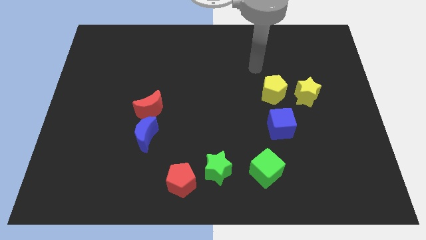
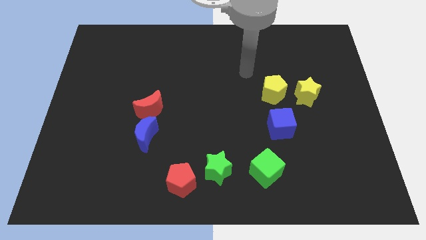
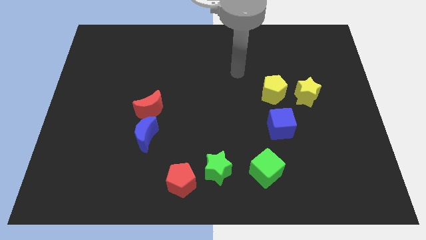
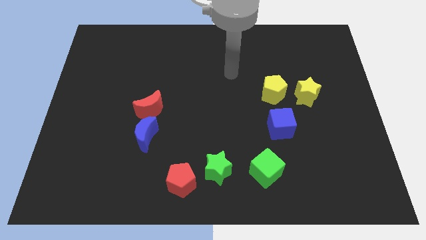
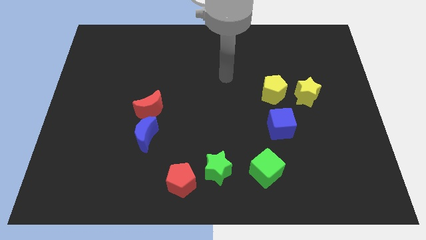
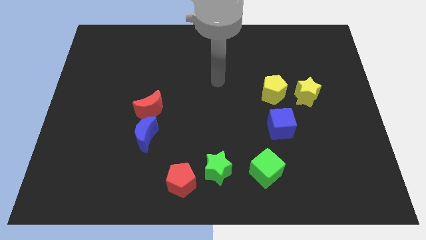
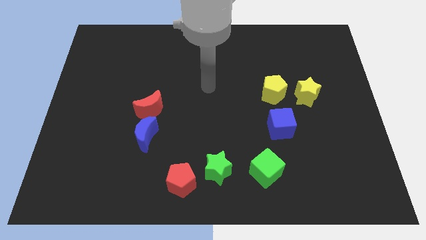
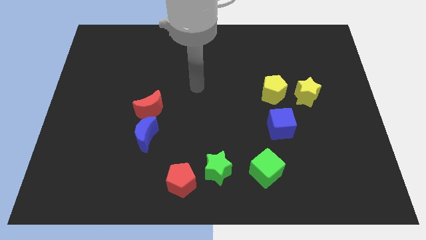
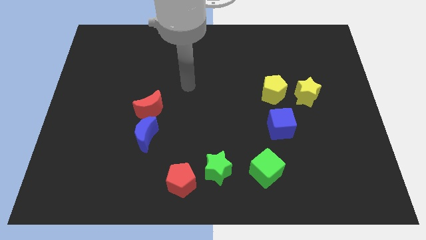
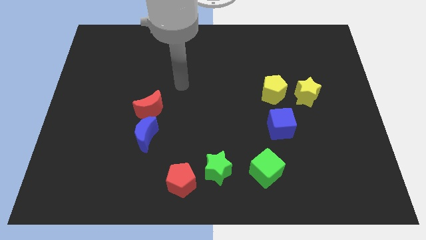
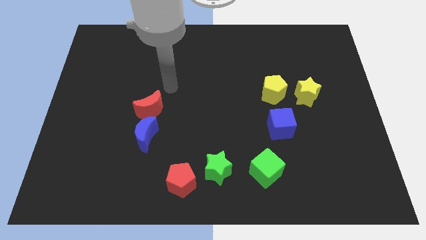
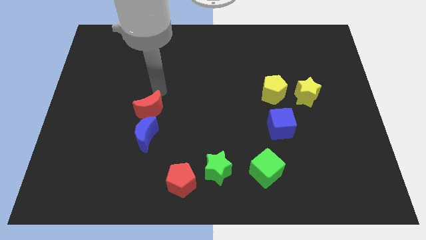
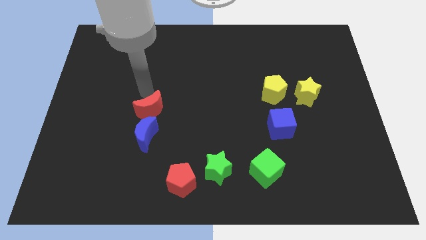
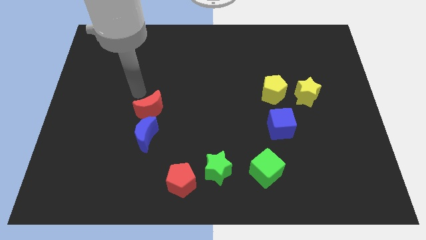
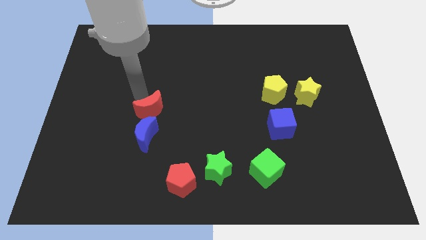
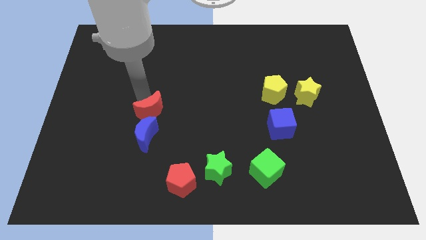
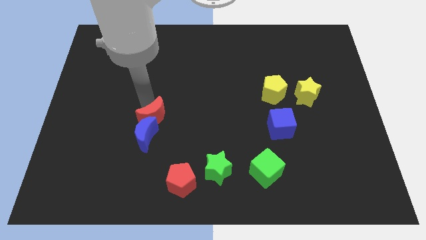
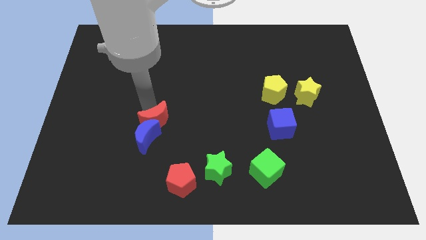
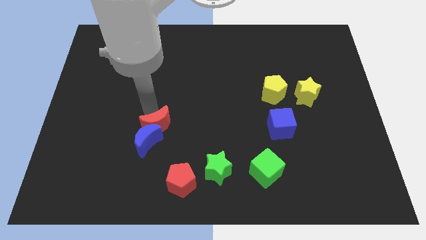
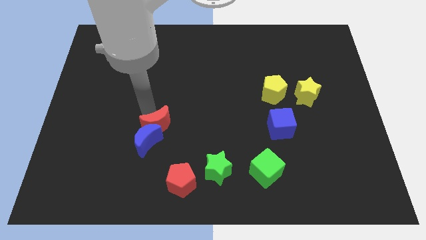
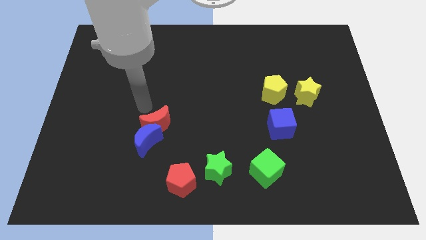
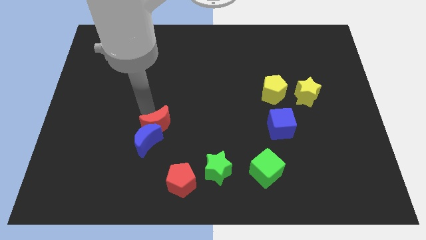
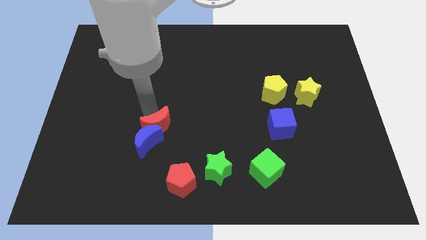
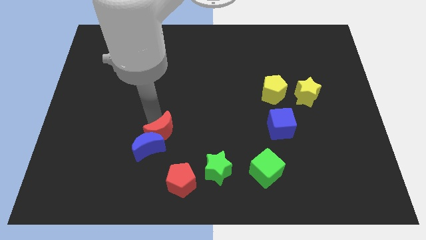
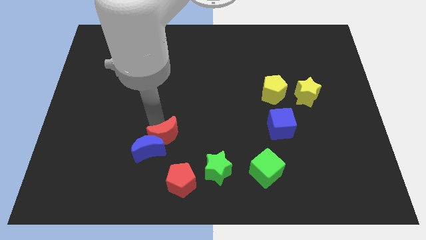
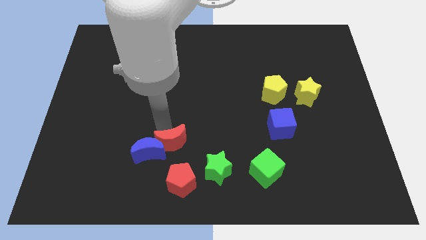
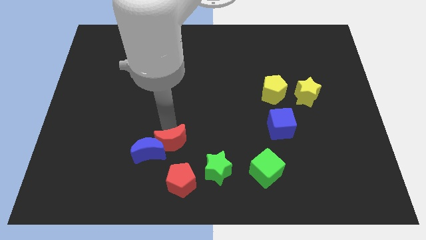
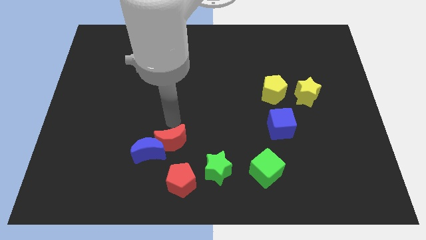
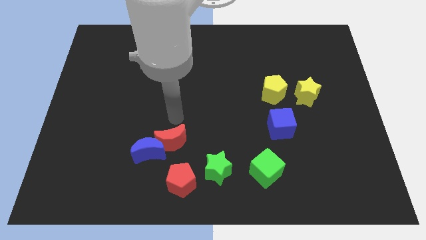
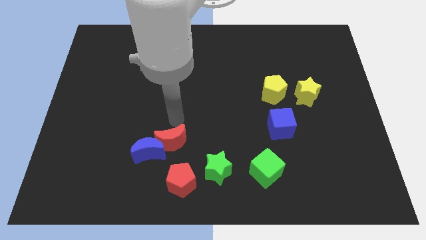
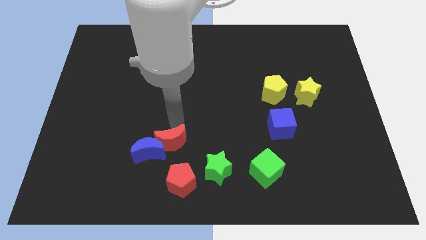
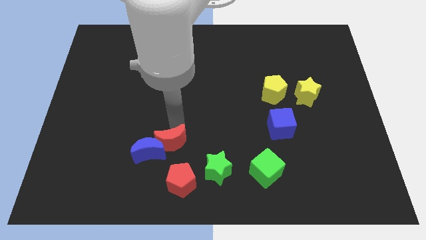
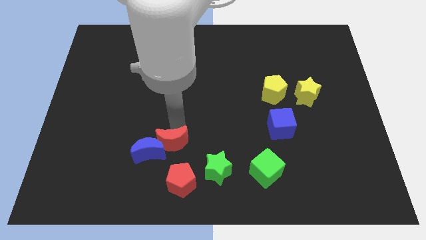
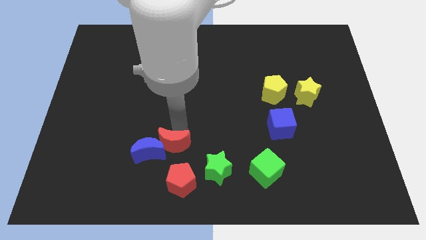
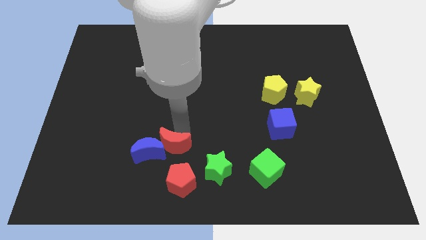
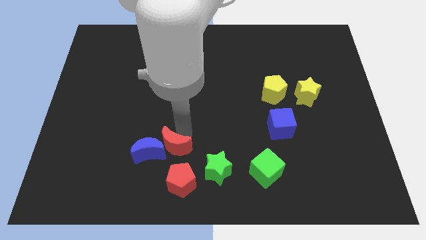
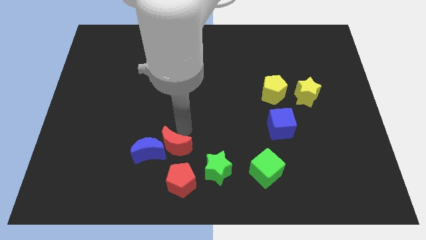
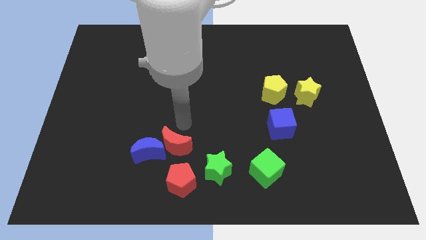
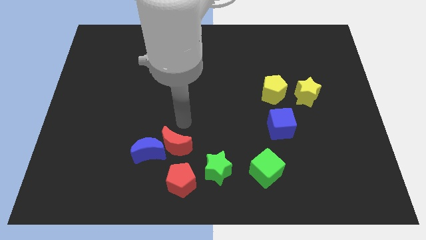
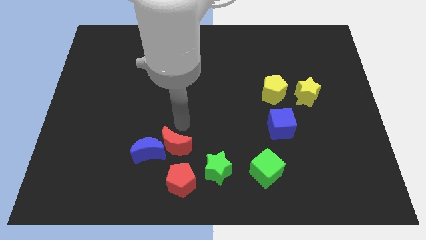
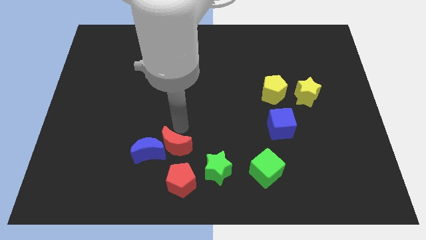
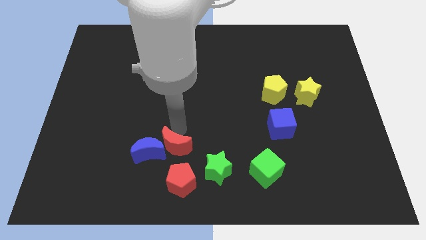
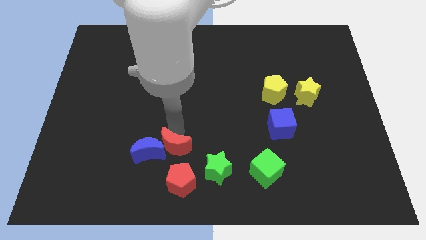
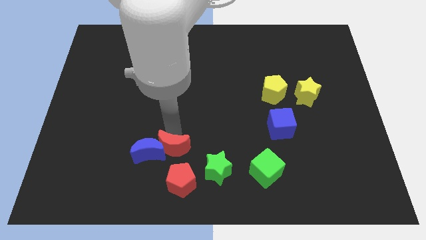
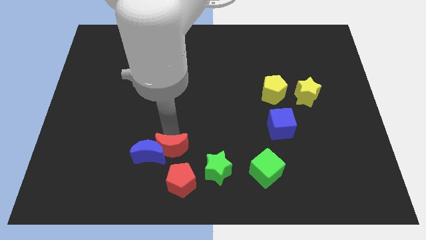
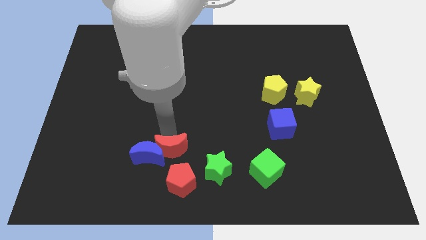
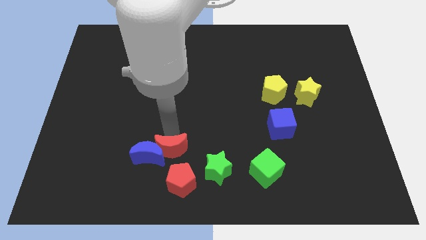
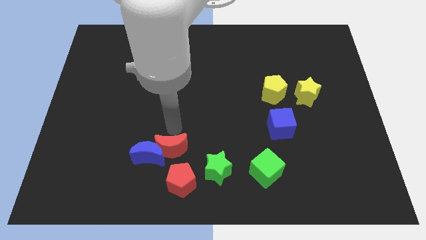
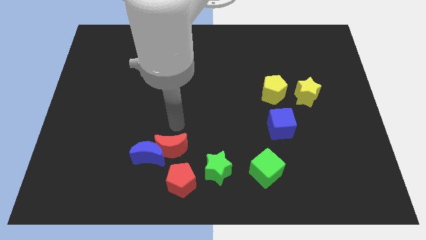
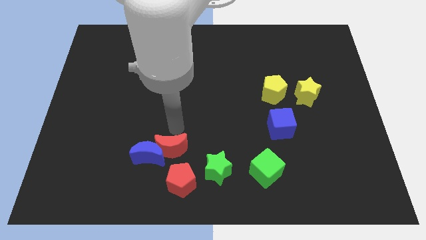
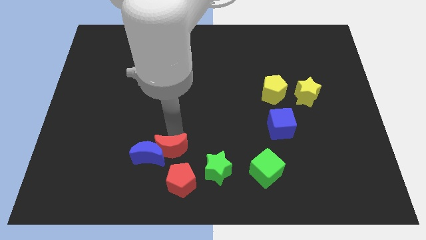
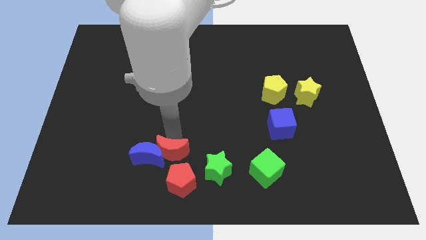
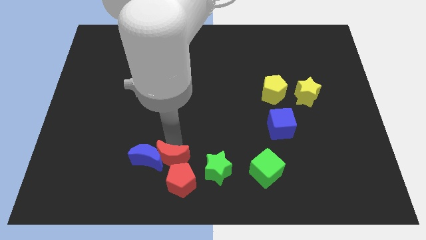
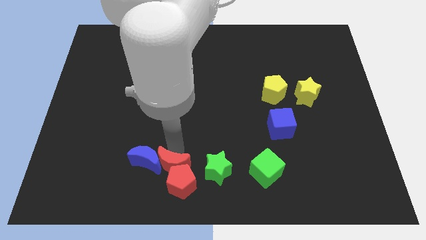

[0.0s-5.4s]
push the red moon to the bottom

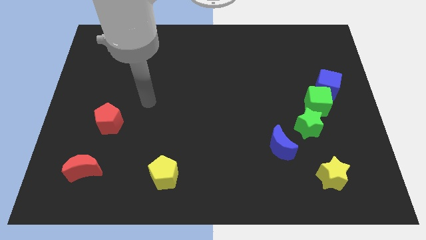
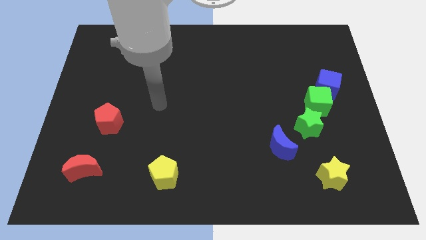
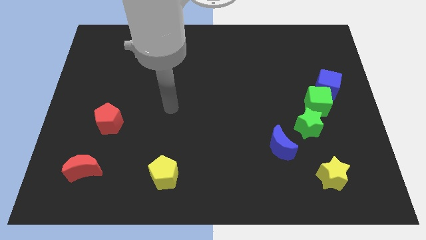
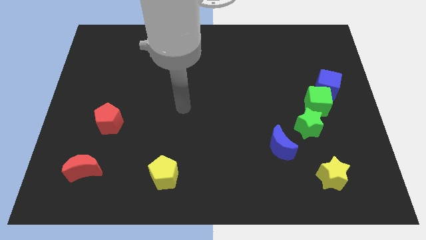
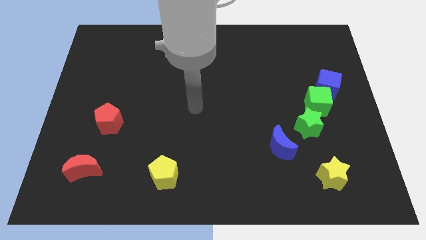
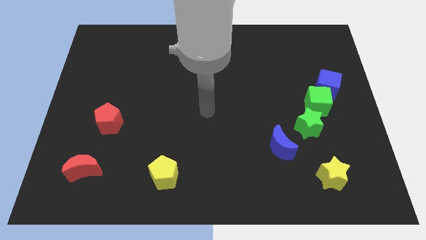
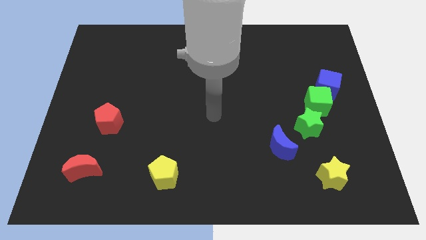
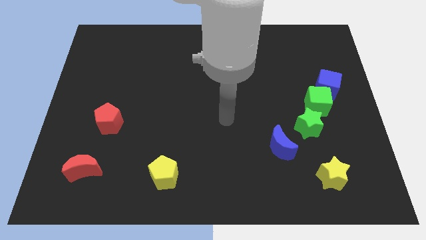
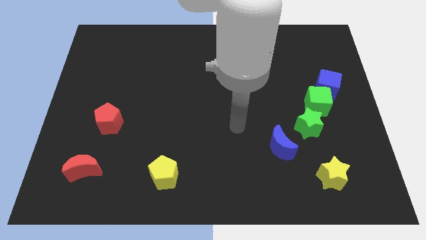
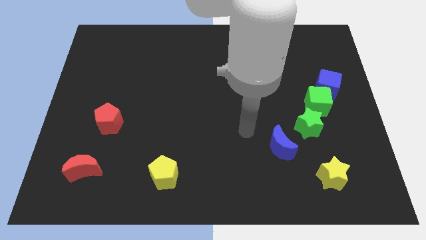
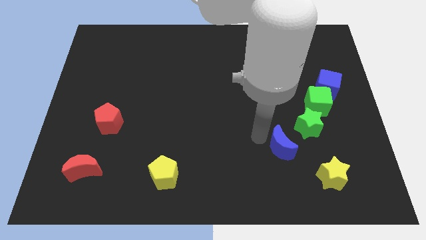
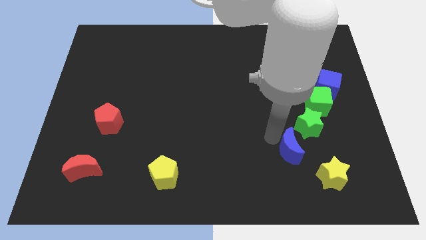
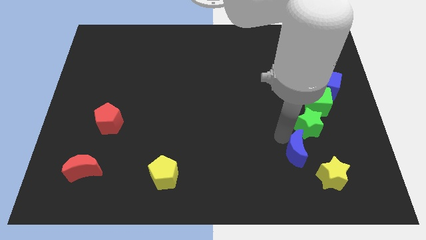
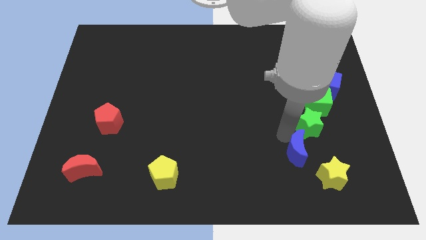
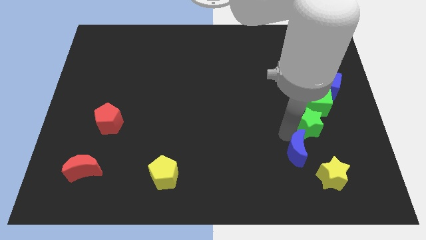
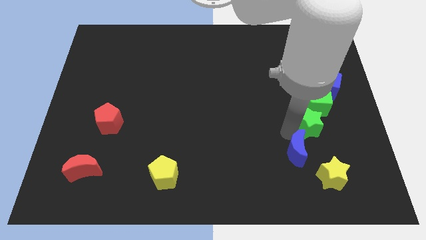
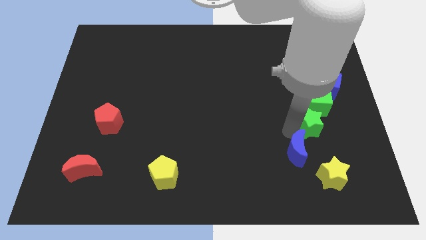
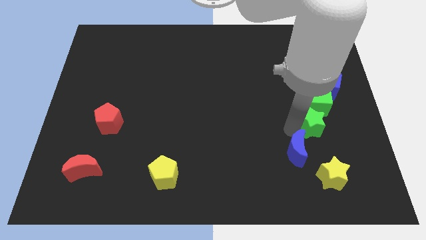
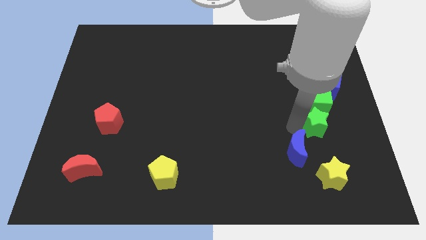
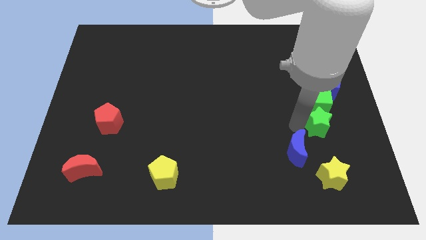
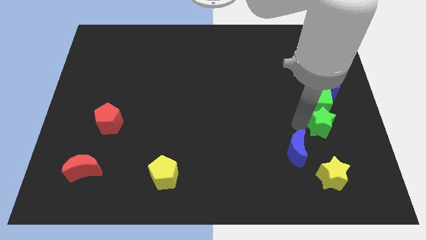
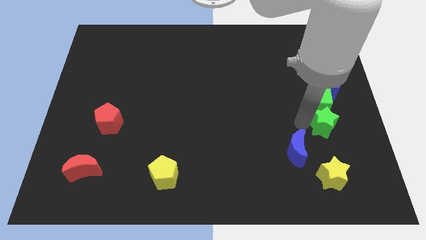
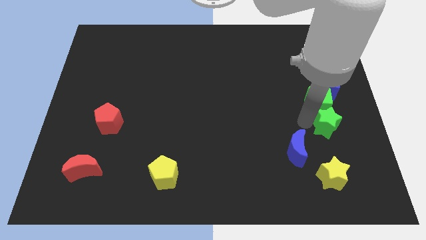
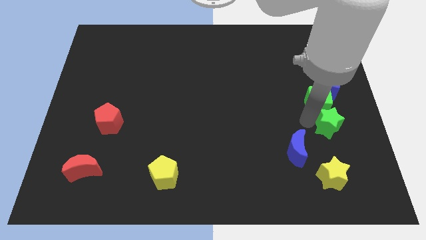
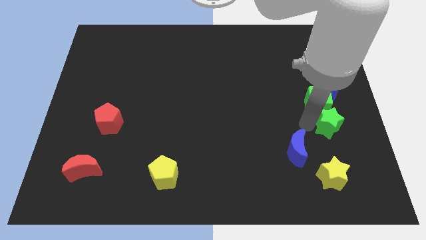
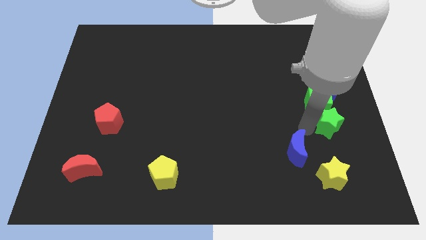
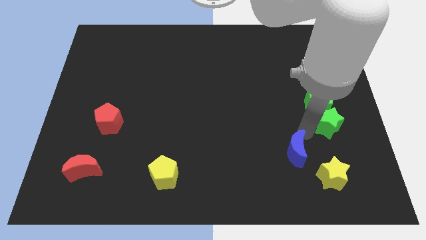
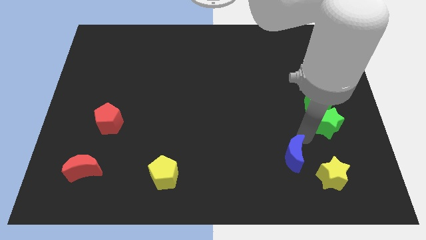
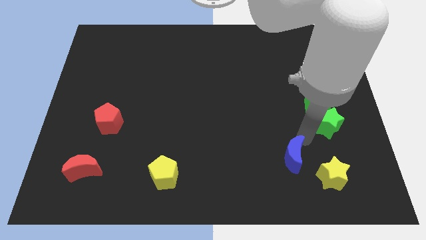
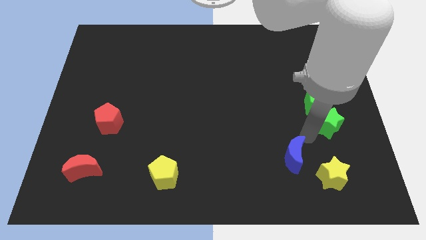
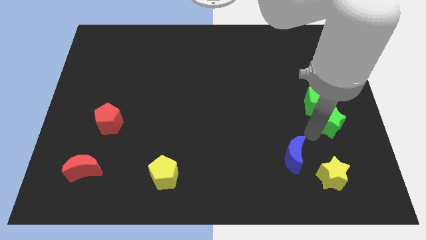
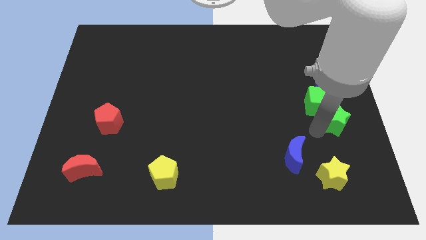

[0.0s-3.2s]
put the green star to the center right
